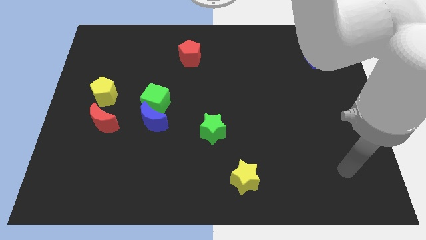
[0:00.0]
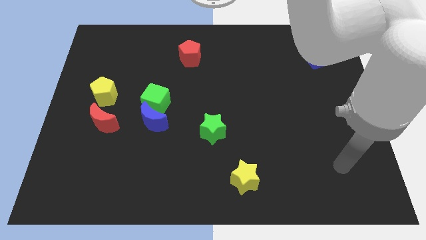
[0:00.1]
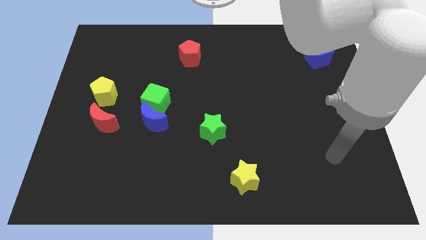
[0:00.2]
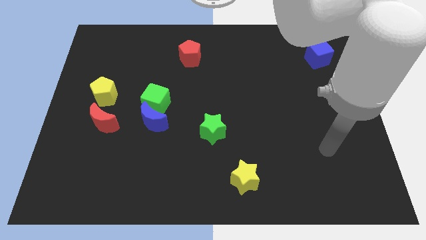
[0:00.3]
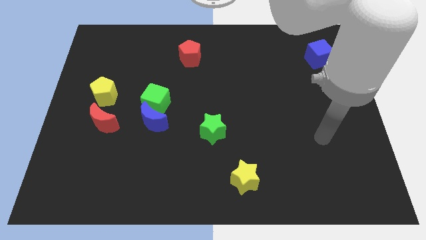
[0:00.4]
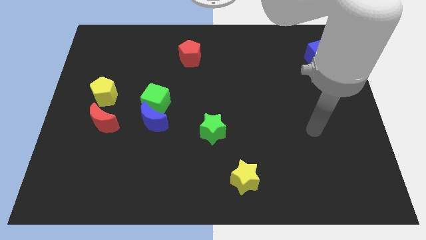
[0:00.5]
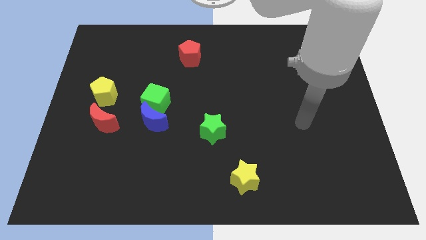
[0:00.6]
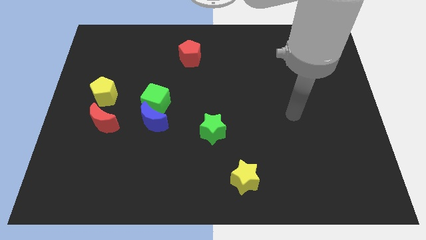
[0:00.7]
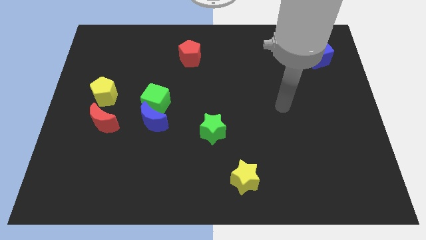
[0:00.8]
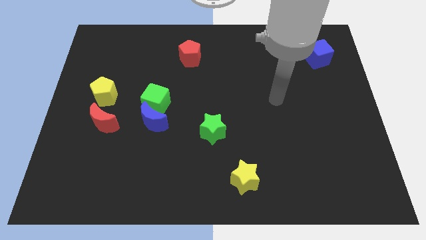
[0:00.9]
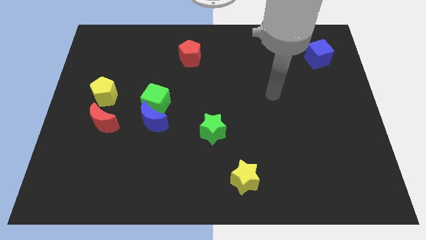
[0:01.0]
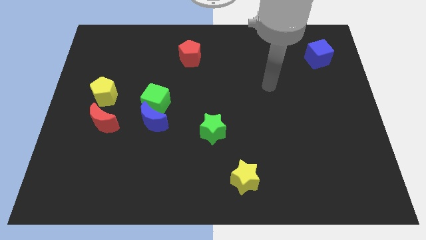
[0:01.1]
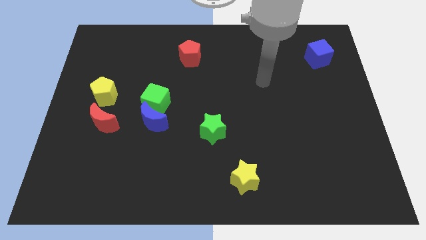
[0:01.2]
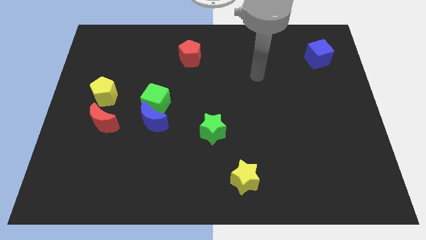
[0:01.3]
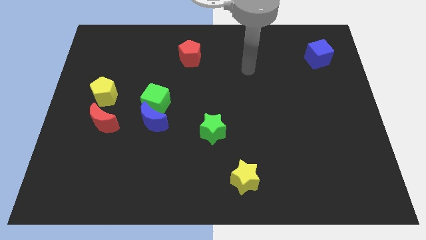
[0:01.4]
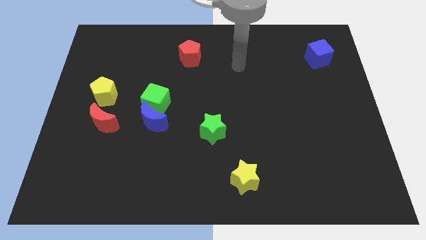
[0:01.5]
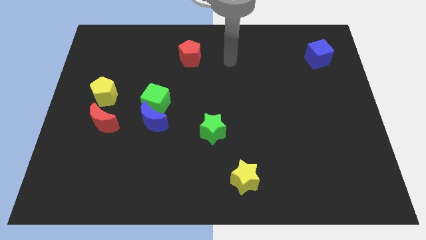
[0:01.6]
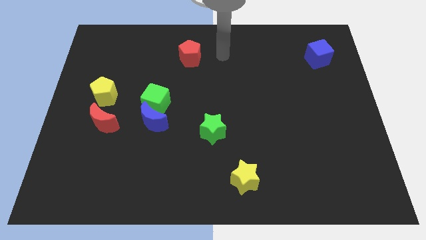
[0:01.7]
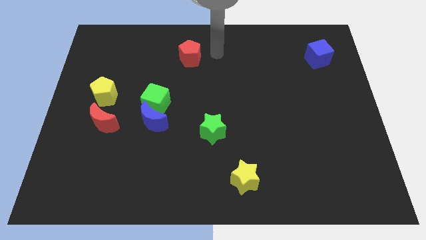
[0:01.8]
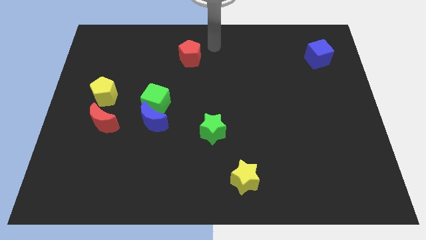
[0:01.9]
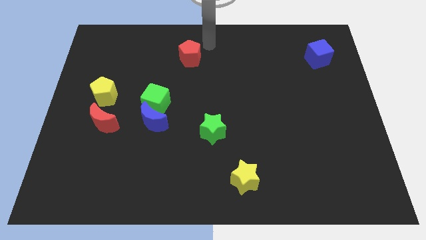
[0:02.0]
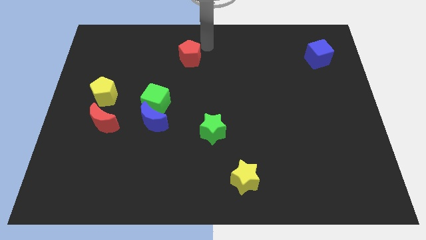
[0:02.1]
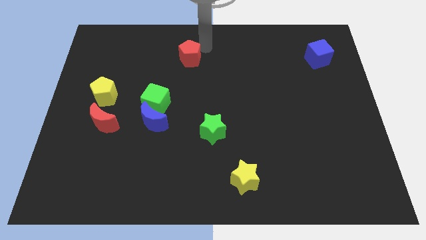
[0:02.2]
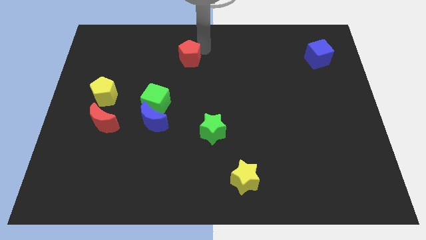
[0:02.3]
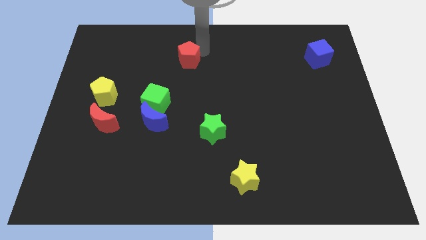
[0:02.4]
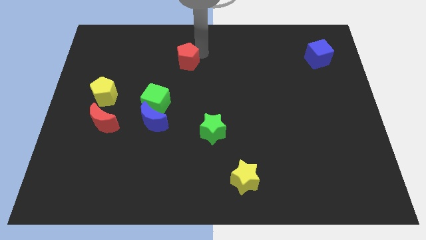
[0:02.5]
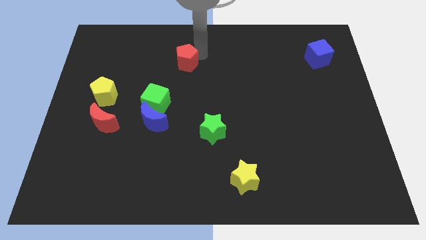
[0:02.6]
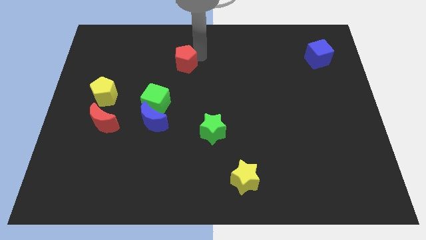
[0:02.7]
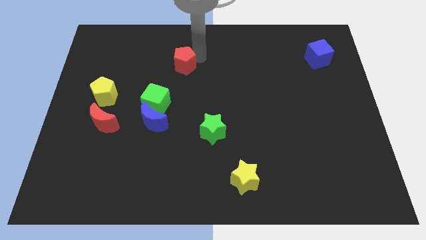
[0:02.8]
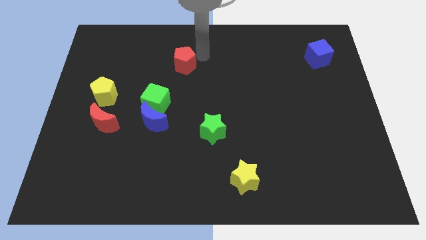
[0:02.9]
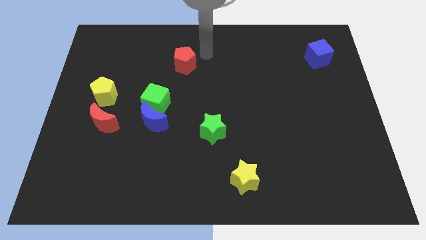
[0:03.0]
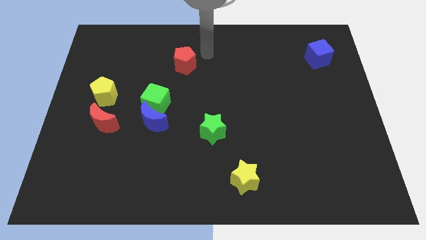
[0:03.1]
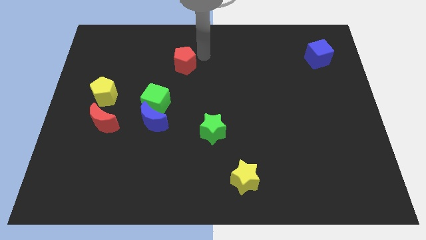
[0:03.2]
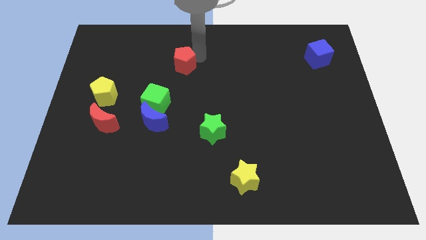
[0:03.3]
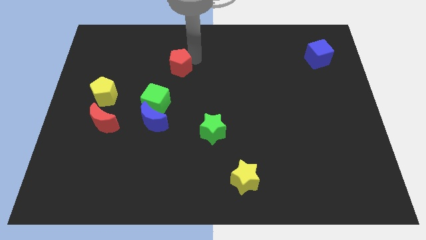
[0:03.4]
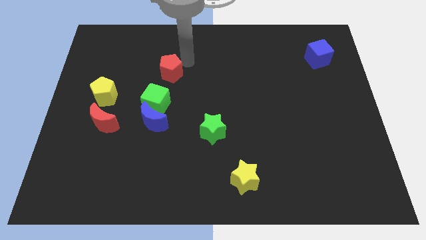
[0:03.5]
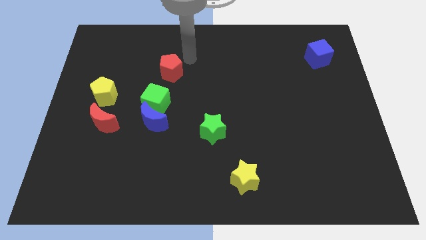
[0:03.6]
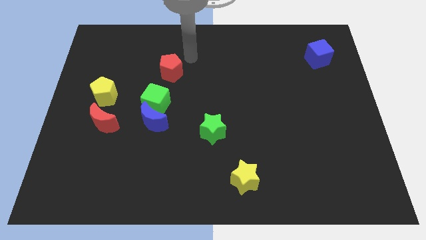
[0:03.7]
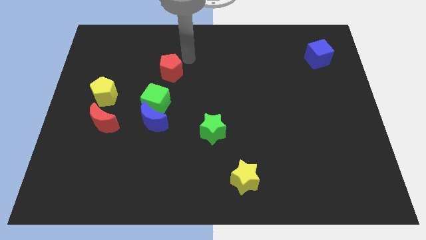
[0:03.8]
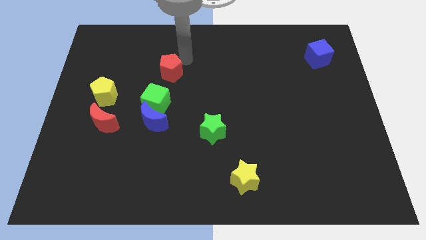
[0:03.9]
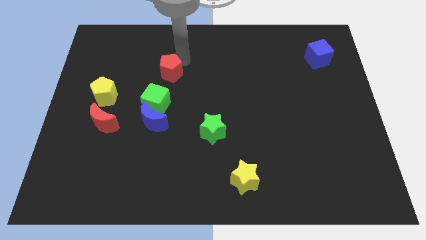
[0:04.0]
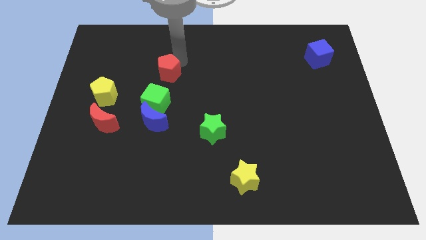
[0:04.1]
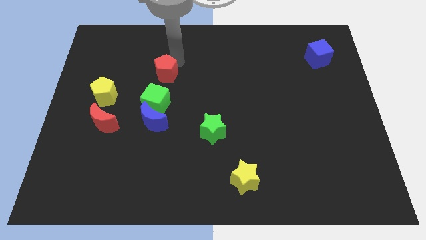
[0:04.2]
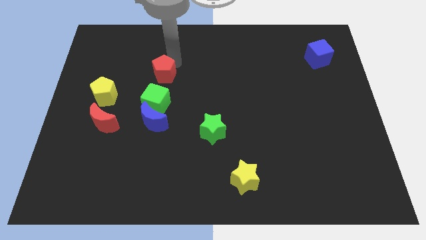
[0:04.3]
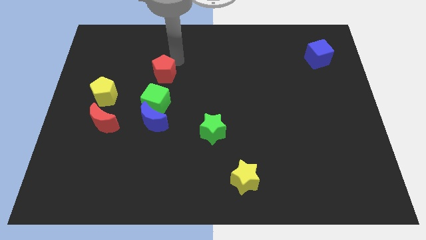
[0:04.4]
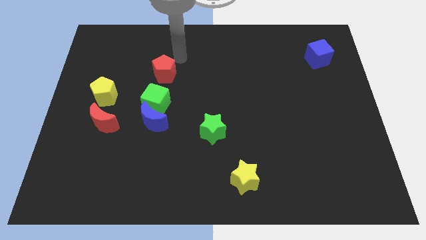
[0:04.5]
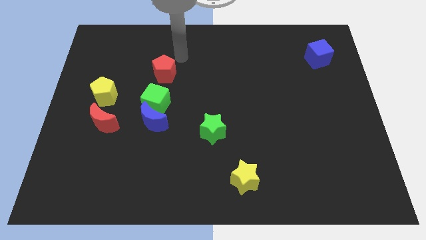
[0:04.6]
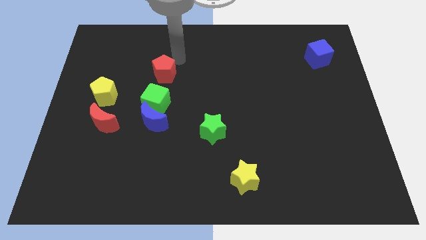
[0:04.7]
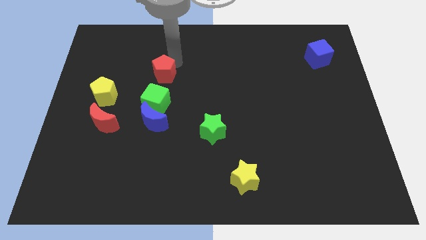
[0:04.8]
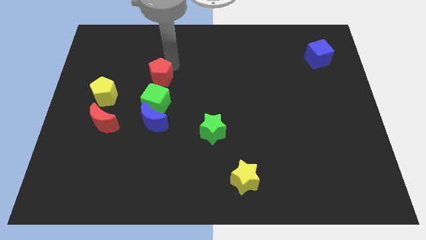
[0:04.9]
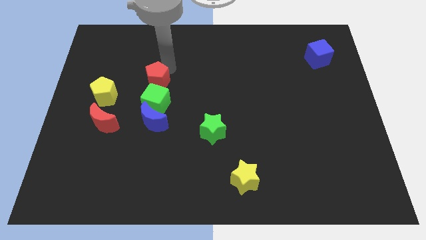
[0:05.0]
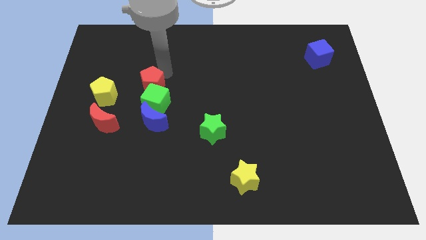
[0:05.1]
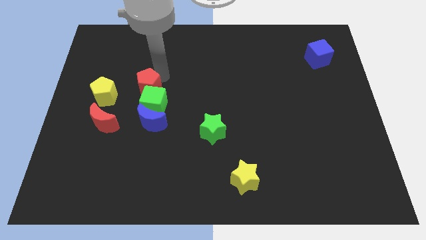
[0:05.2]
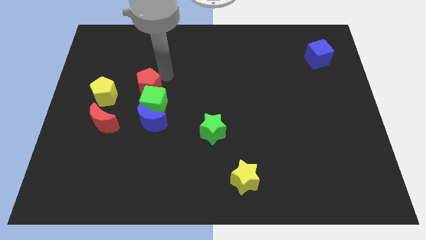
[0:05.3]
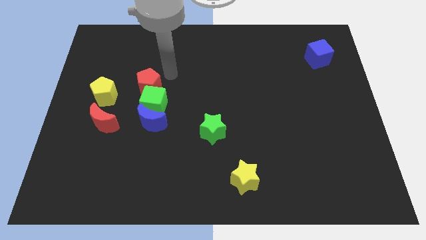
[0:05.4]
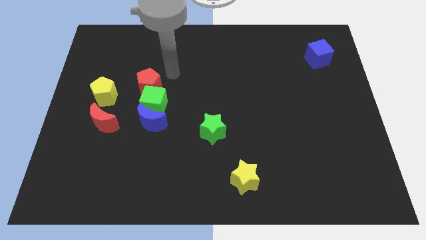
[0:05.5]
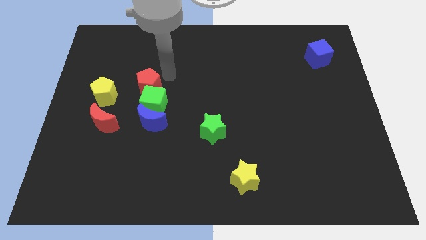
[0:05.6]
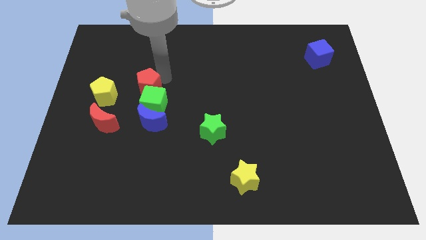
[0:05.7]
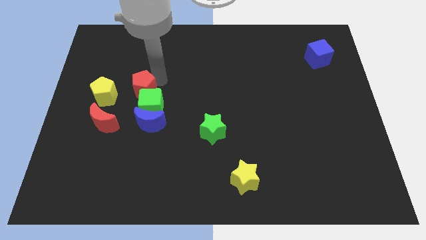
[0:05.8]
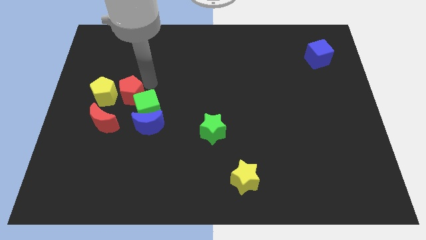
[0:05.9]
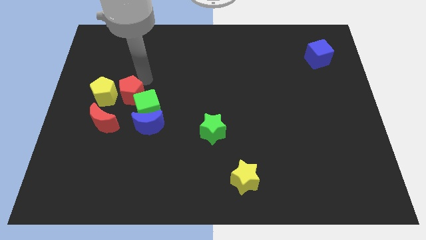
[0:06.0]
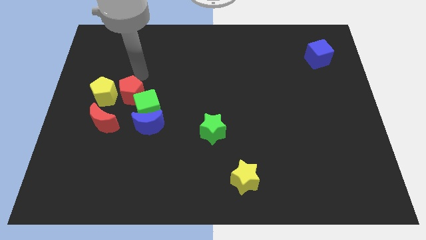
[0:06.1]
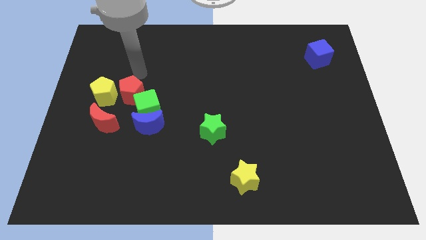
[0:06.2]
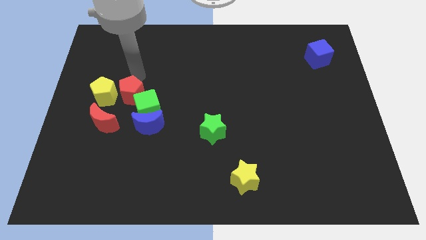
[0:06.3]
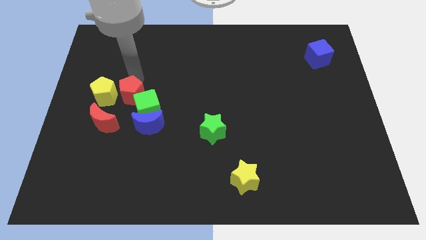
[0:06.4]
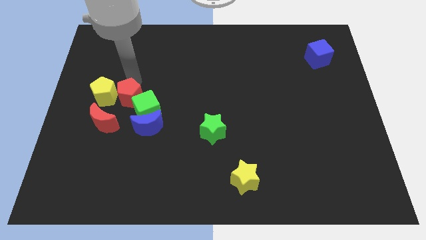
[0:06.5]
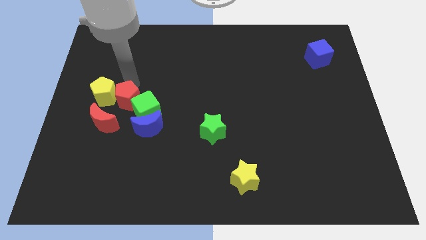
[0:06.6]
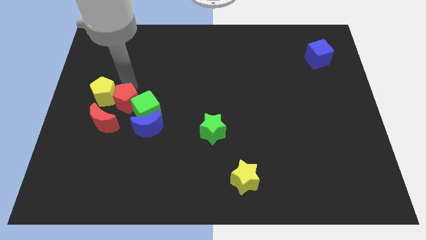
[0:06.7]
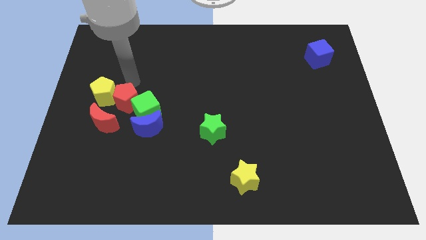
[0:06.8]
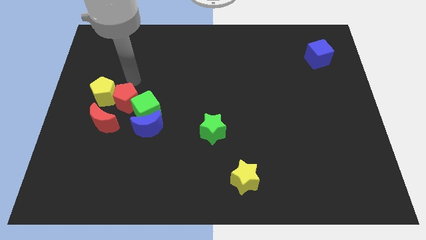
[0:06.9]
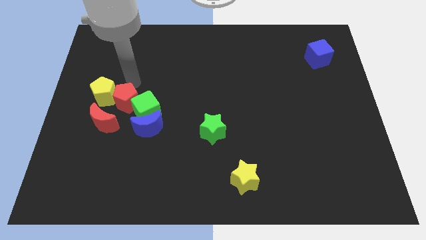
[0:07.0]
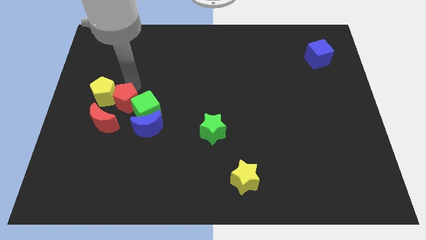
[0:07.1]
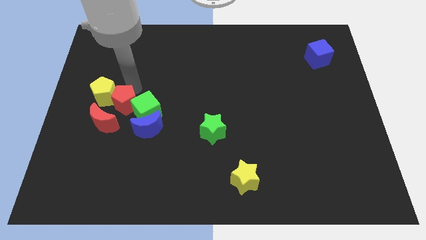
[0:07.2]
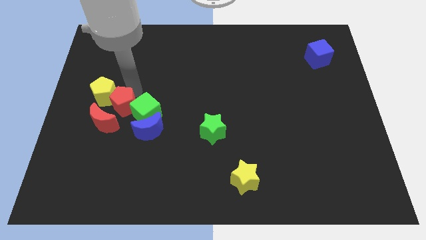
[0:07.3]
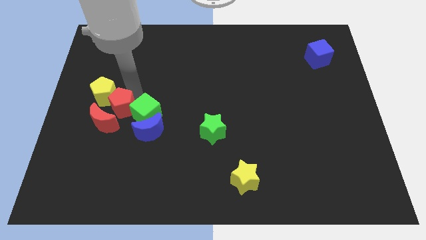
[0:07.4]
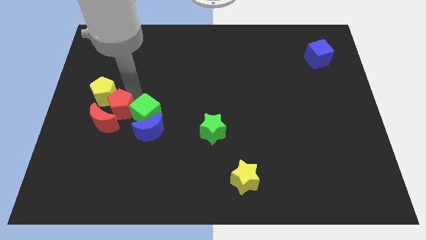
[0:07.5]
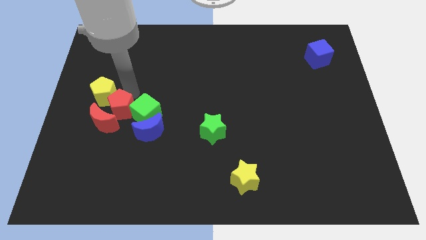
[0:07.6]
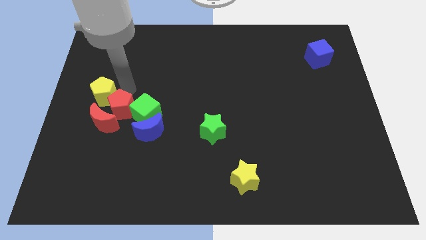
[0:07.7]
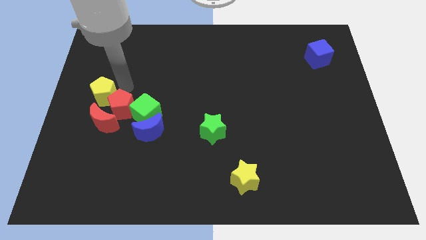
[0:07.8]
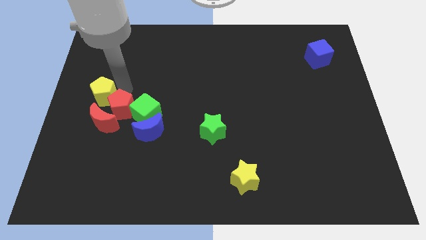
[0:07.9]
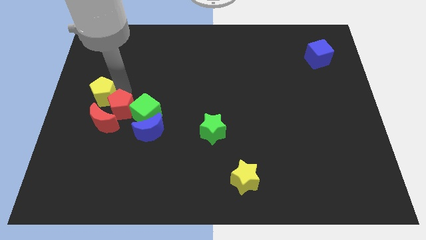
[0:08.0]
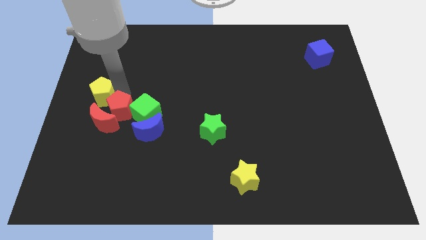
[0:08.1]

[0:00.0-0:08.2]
slide the red pentagon to the bottom left side of the green cube
